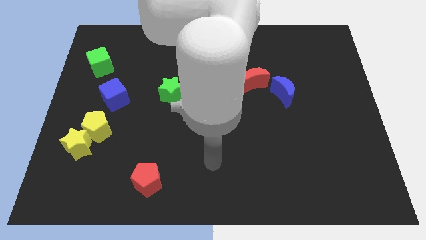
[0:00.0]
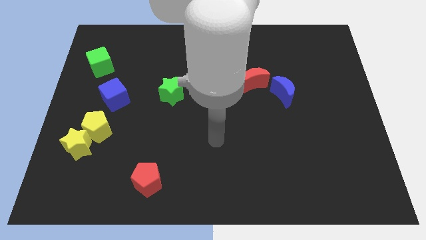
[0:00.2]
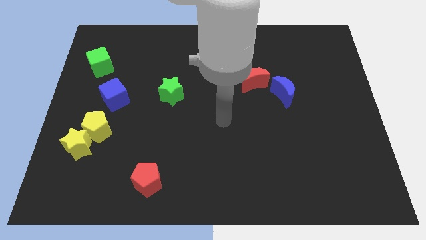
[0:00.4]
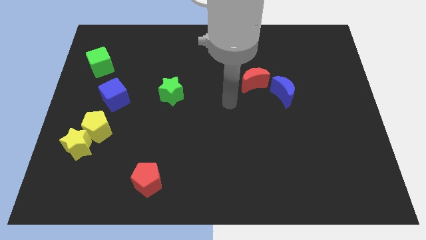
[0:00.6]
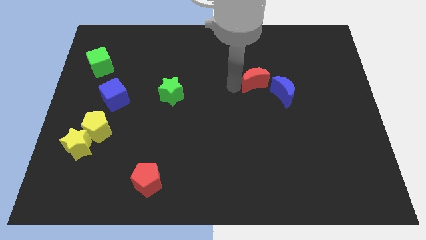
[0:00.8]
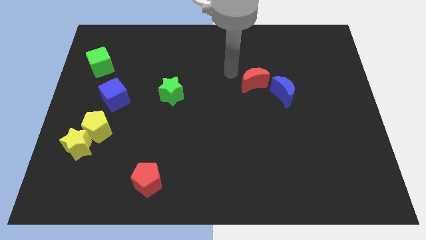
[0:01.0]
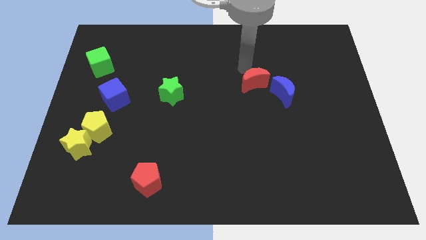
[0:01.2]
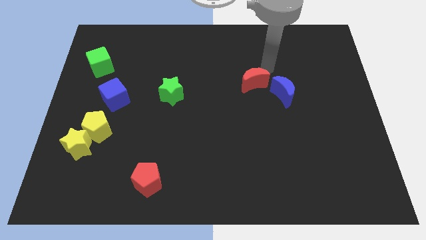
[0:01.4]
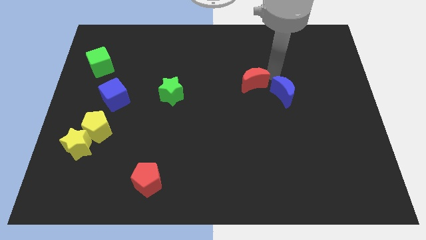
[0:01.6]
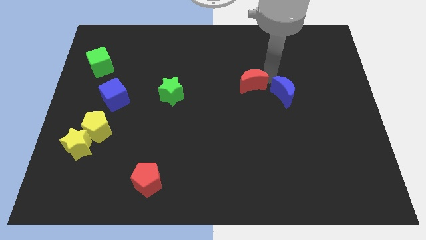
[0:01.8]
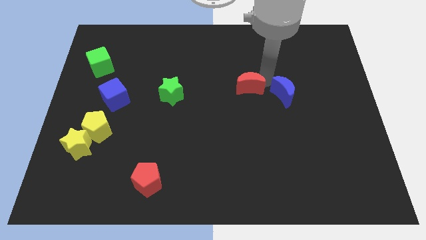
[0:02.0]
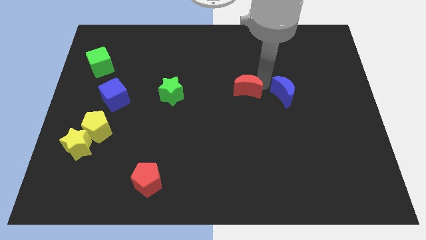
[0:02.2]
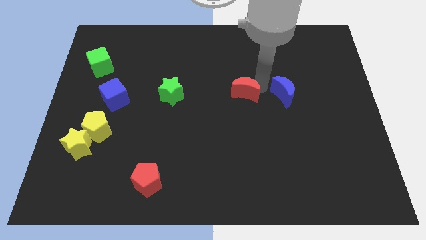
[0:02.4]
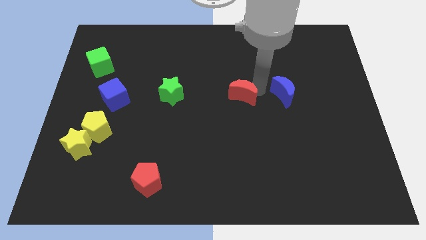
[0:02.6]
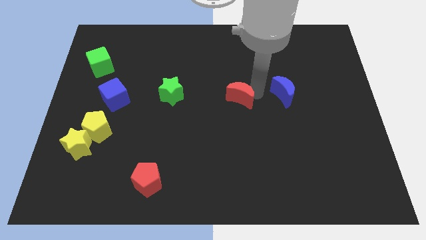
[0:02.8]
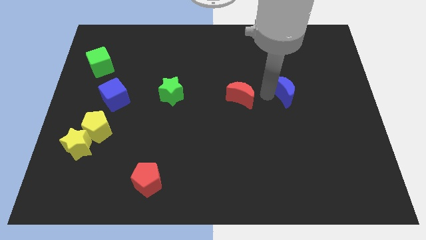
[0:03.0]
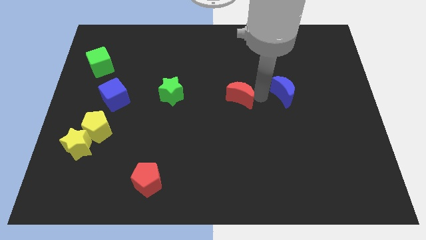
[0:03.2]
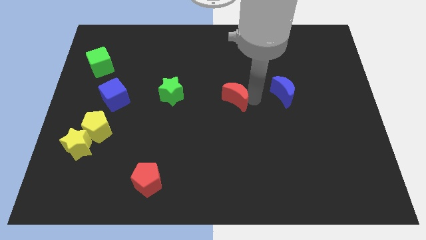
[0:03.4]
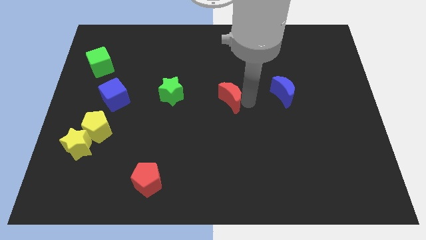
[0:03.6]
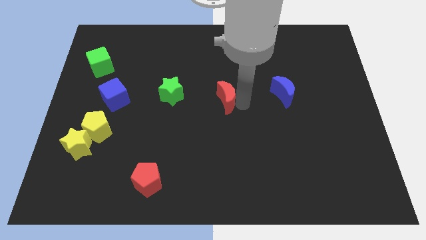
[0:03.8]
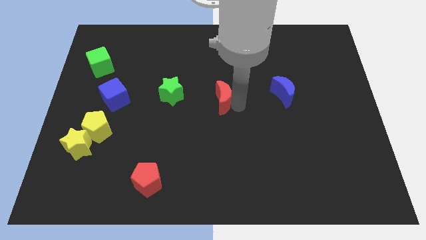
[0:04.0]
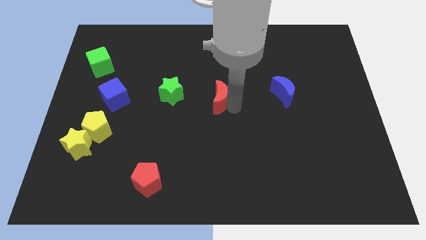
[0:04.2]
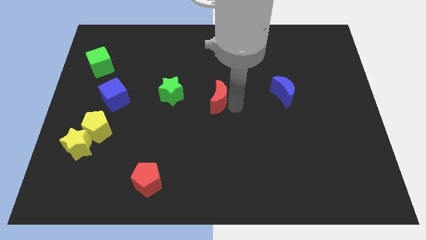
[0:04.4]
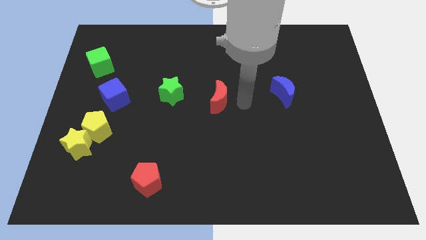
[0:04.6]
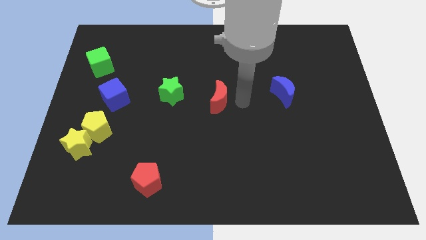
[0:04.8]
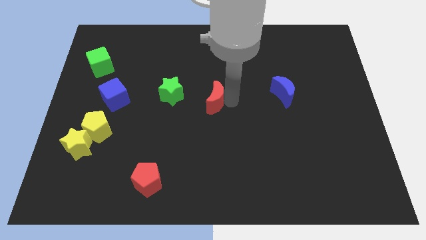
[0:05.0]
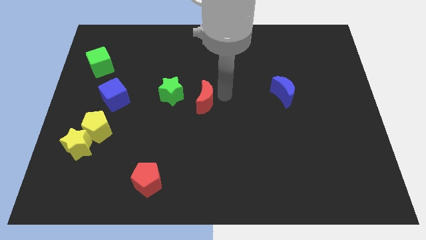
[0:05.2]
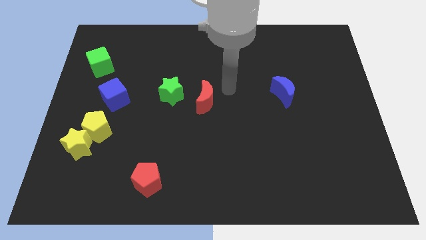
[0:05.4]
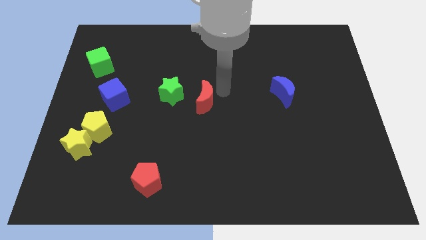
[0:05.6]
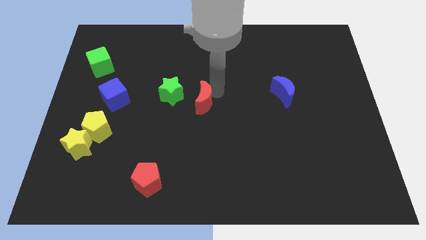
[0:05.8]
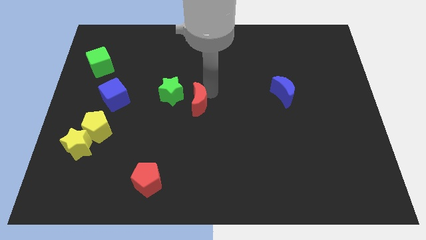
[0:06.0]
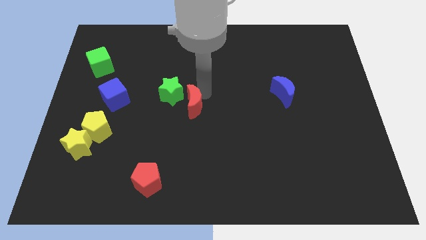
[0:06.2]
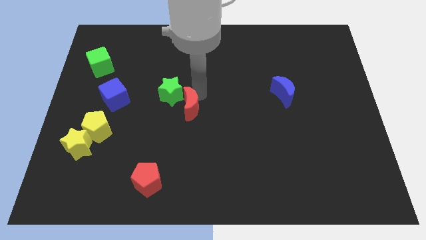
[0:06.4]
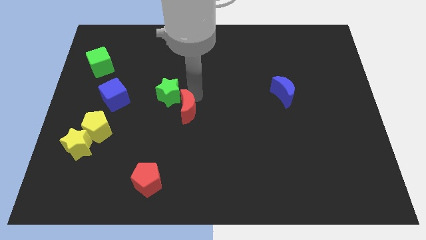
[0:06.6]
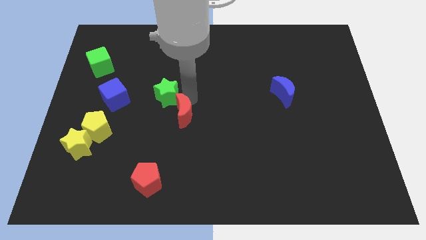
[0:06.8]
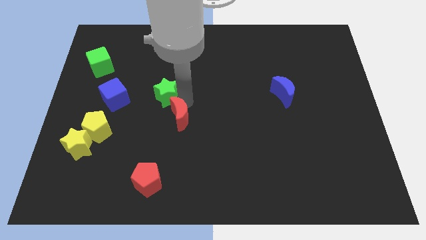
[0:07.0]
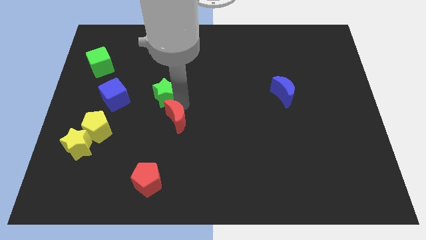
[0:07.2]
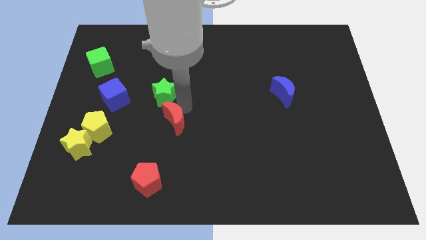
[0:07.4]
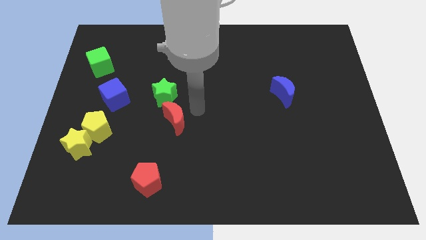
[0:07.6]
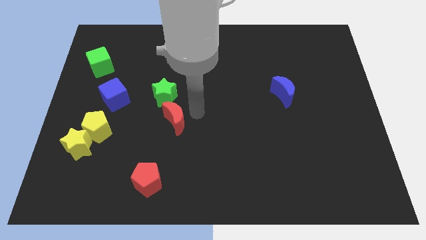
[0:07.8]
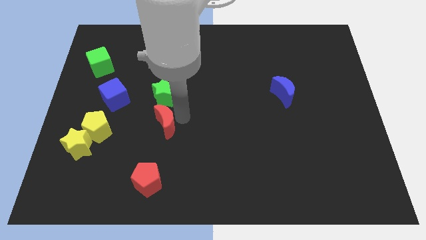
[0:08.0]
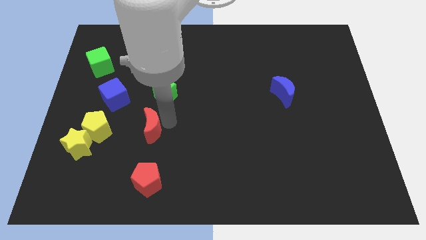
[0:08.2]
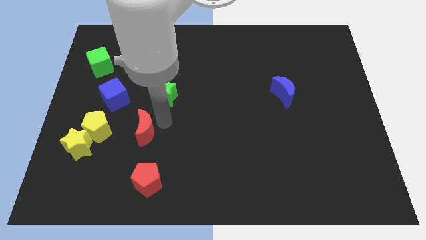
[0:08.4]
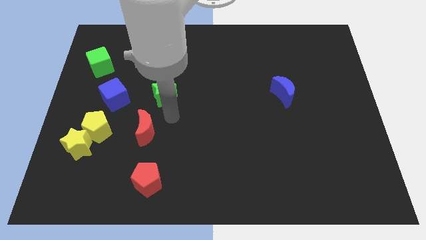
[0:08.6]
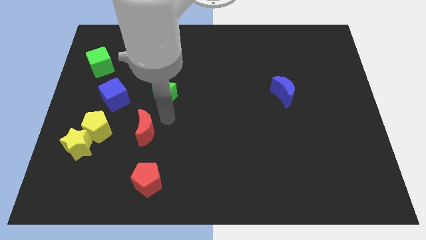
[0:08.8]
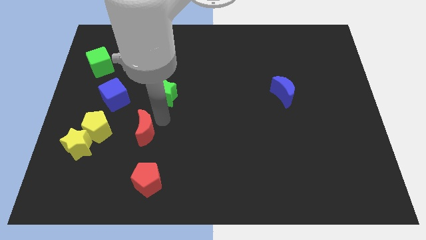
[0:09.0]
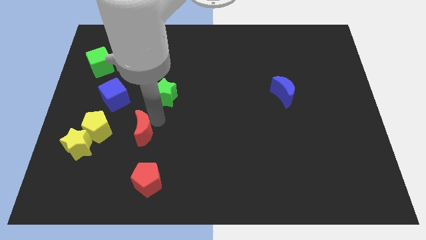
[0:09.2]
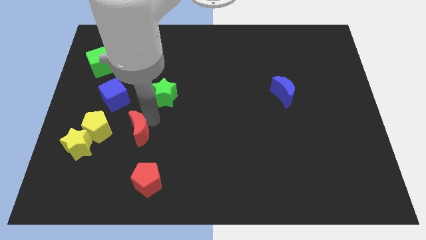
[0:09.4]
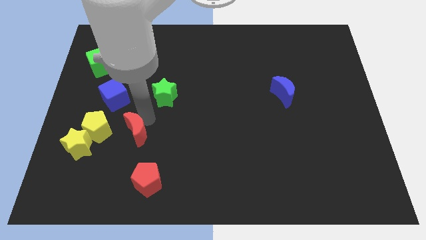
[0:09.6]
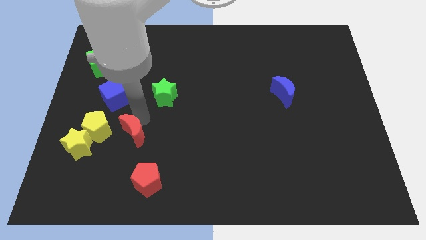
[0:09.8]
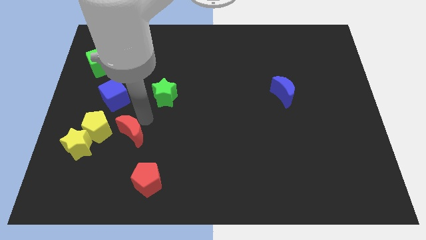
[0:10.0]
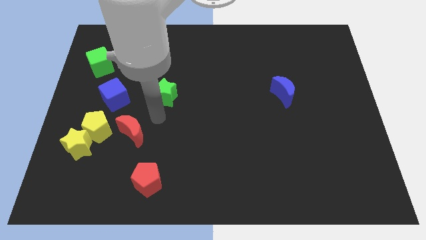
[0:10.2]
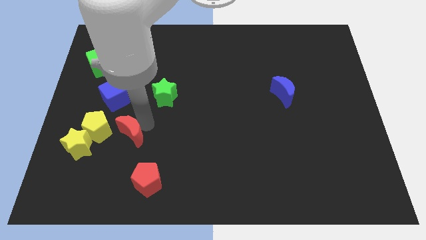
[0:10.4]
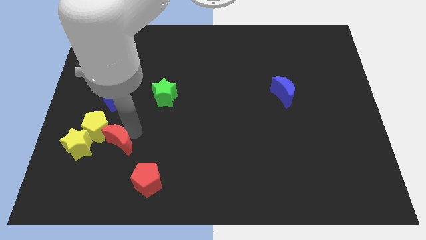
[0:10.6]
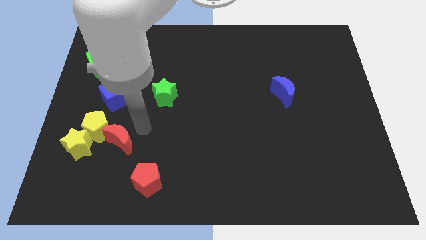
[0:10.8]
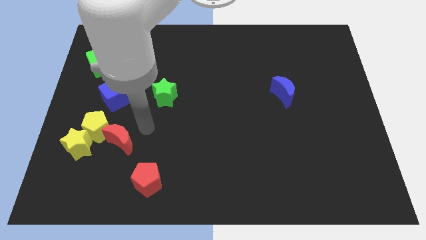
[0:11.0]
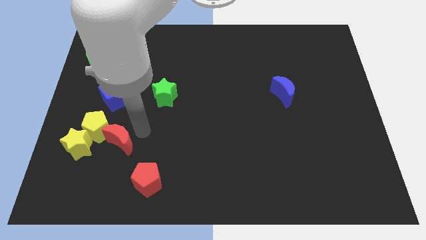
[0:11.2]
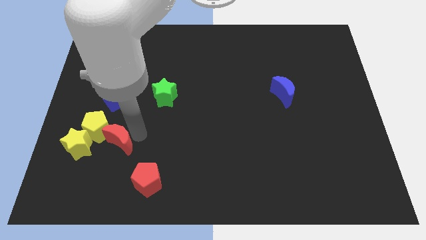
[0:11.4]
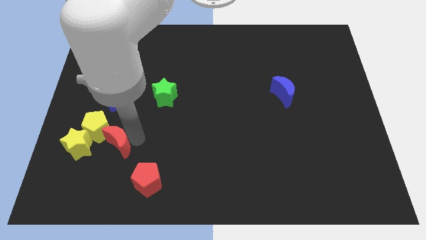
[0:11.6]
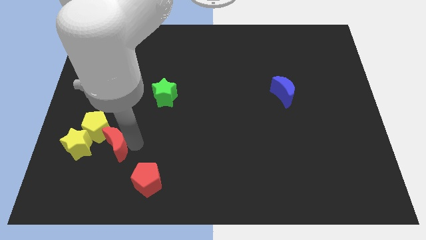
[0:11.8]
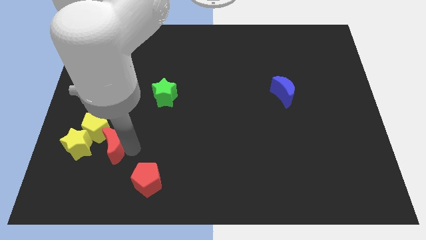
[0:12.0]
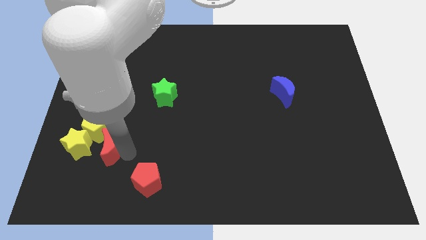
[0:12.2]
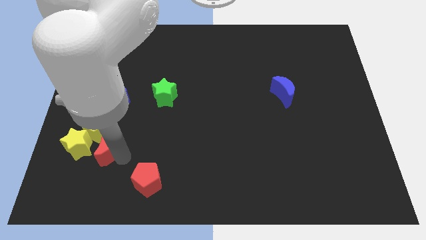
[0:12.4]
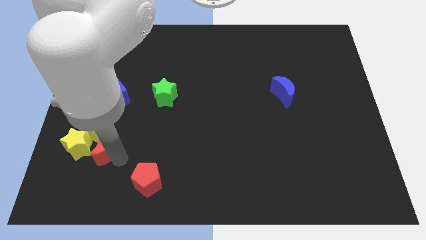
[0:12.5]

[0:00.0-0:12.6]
slide the red moon towards the yellow star
